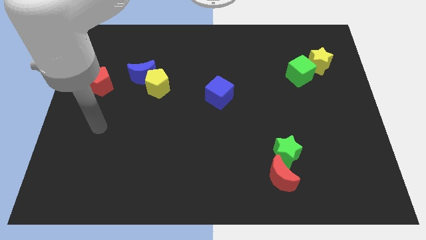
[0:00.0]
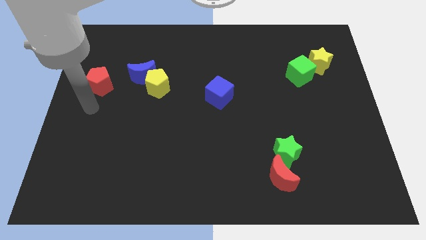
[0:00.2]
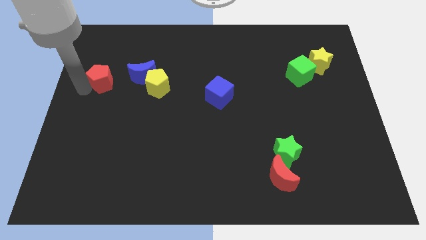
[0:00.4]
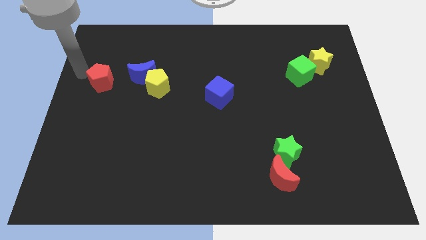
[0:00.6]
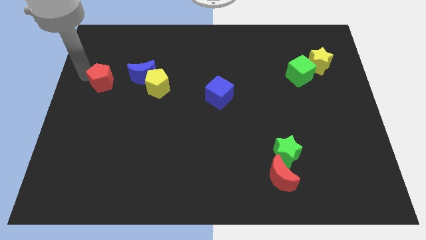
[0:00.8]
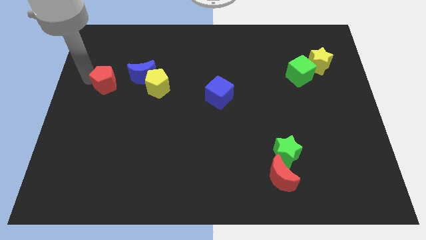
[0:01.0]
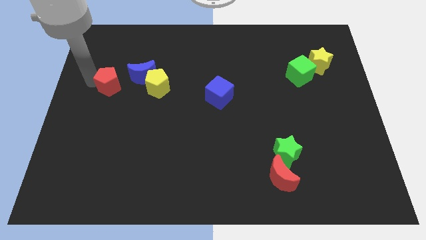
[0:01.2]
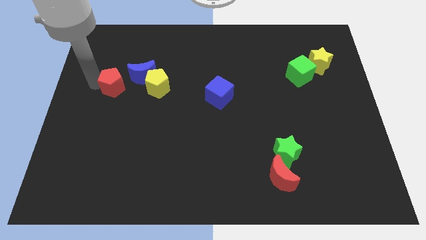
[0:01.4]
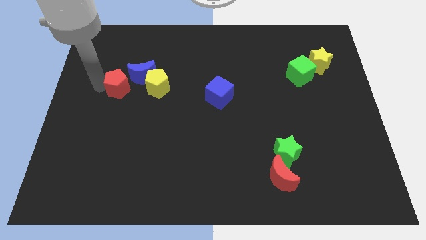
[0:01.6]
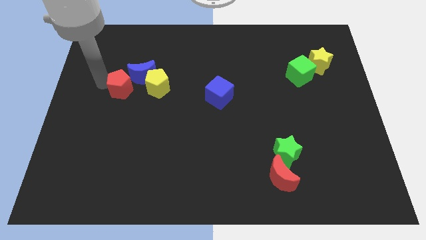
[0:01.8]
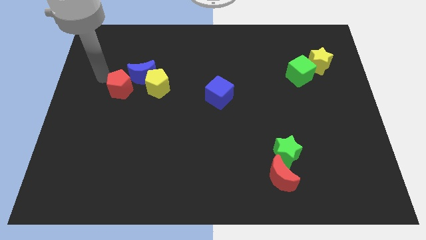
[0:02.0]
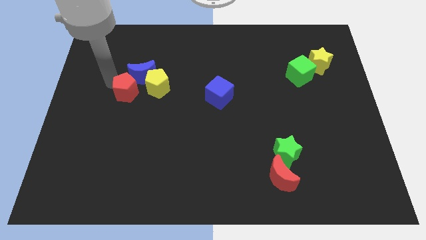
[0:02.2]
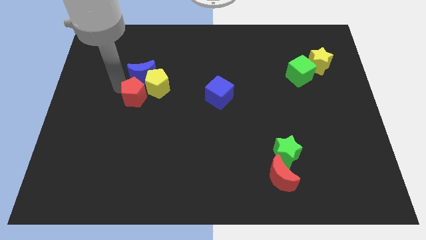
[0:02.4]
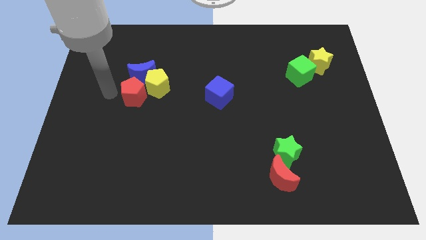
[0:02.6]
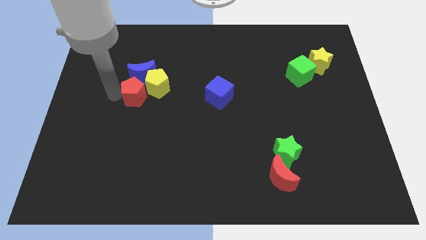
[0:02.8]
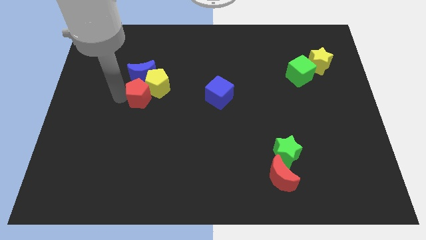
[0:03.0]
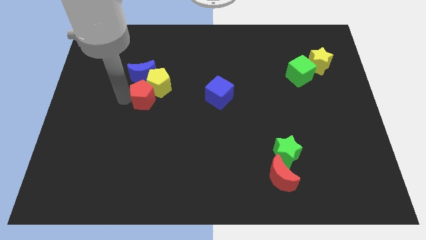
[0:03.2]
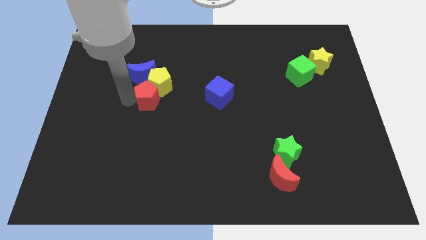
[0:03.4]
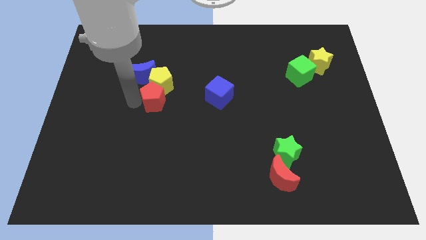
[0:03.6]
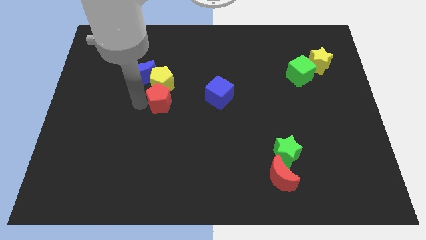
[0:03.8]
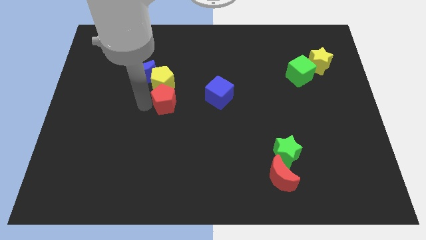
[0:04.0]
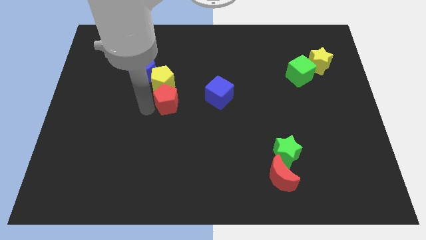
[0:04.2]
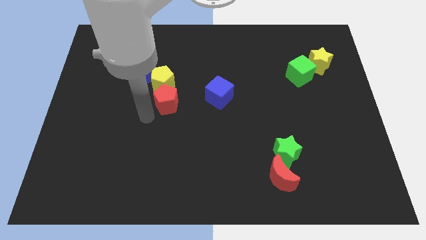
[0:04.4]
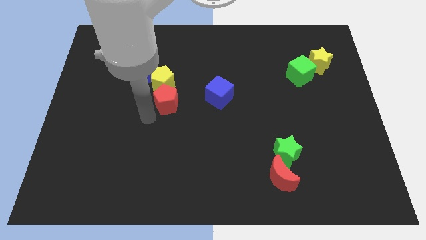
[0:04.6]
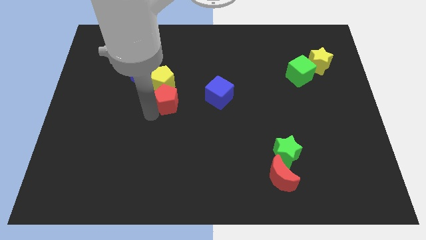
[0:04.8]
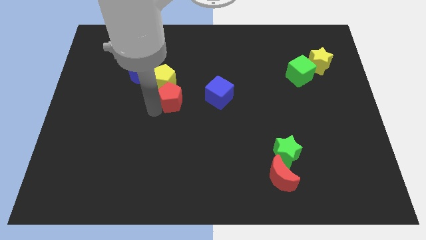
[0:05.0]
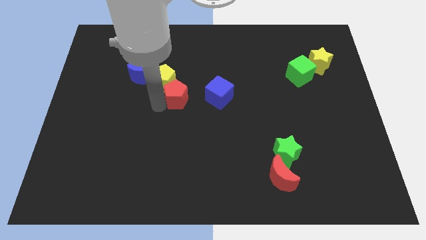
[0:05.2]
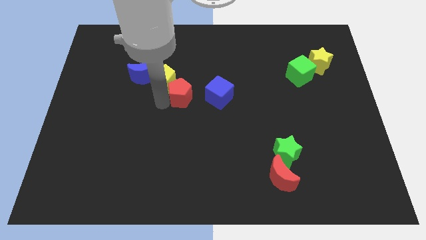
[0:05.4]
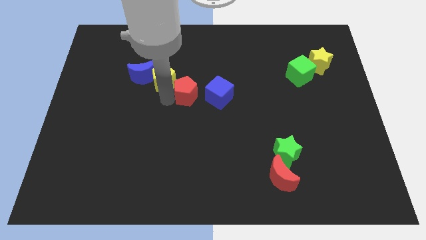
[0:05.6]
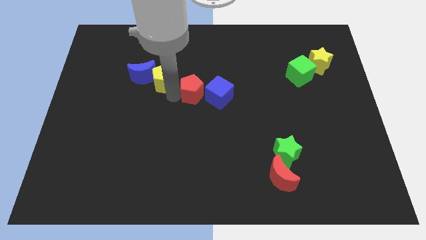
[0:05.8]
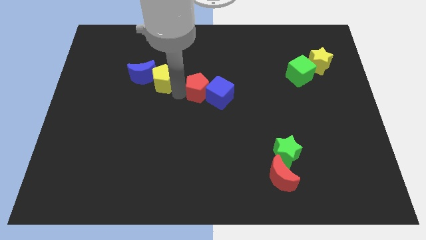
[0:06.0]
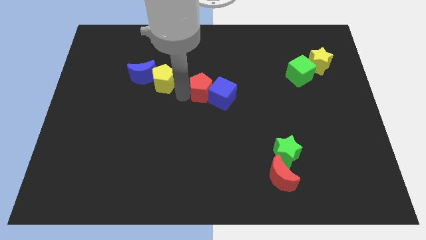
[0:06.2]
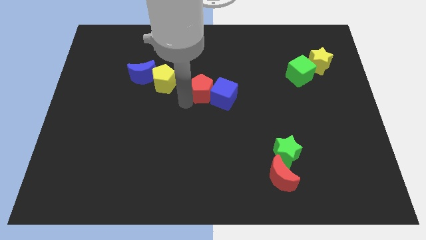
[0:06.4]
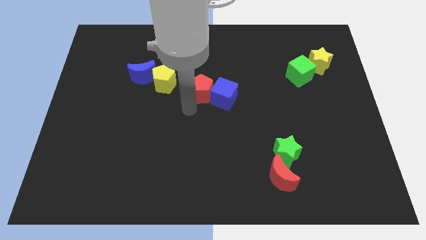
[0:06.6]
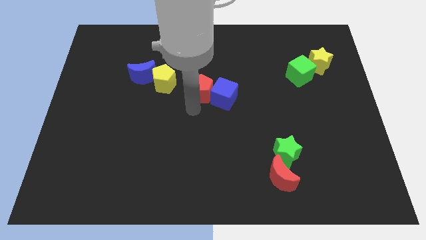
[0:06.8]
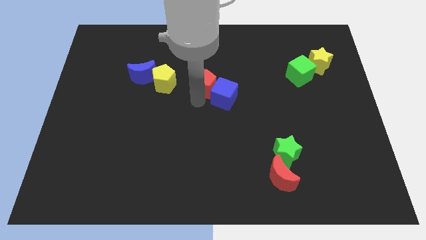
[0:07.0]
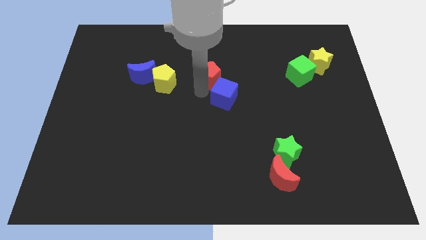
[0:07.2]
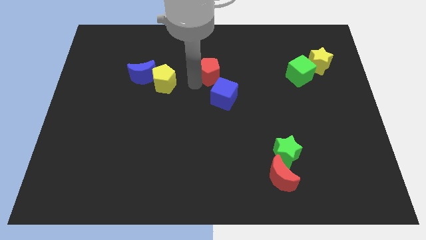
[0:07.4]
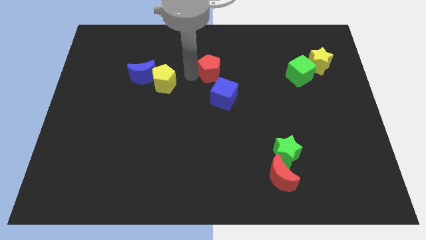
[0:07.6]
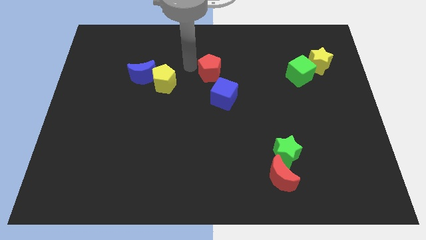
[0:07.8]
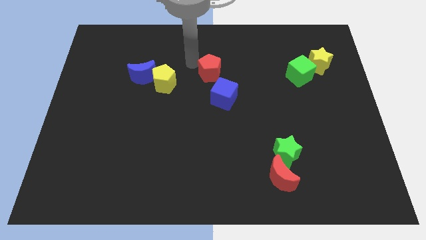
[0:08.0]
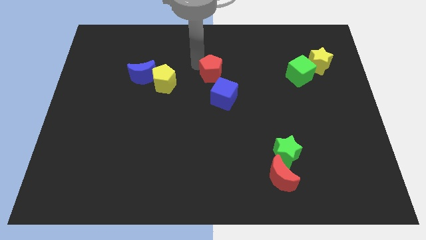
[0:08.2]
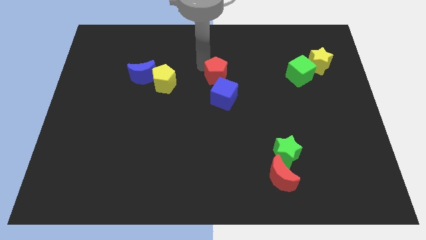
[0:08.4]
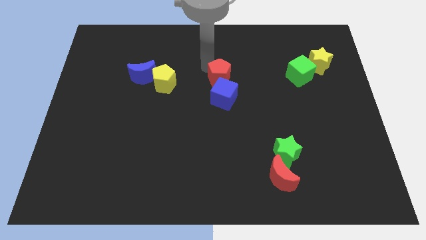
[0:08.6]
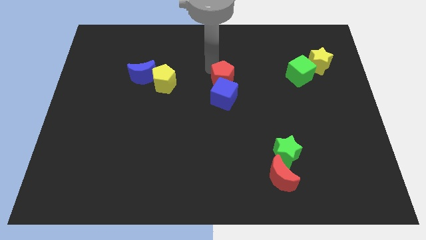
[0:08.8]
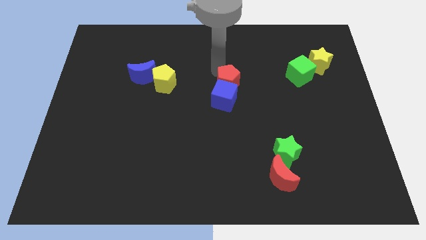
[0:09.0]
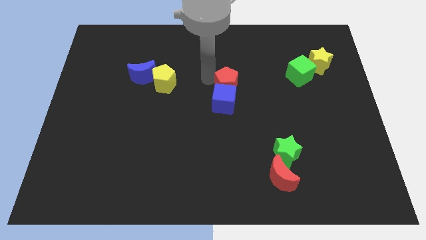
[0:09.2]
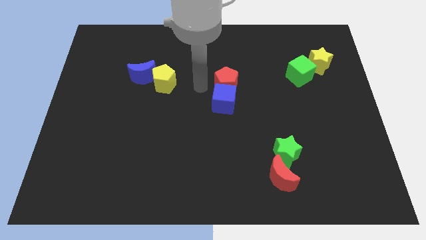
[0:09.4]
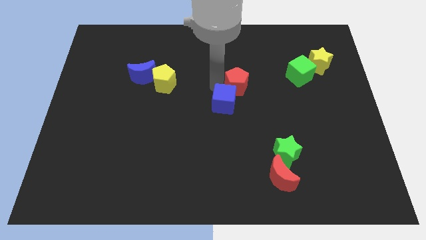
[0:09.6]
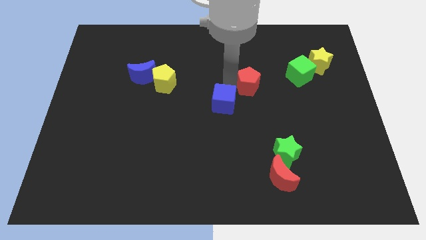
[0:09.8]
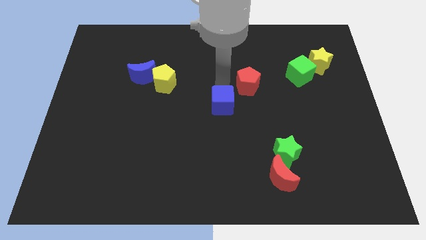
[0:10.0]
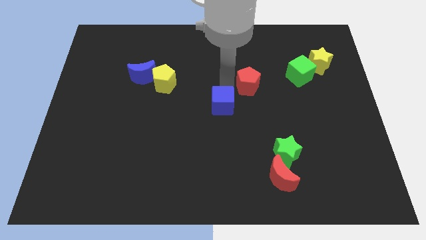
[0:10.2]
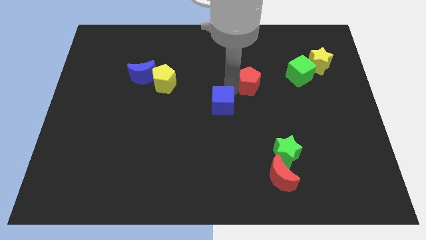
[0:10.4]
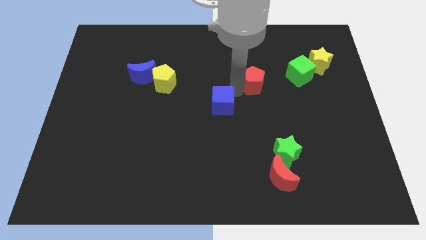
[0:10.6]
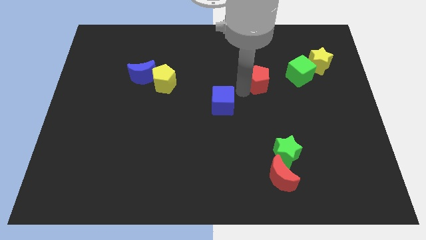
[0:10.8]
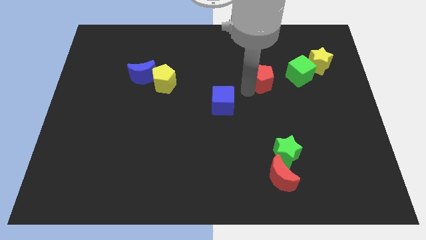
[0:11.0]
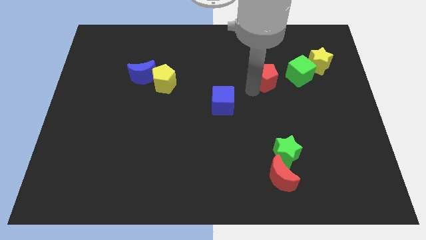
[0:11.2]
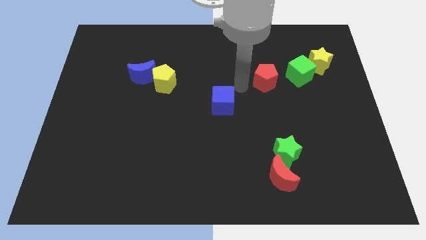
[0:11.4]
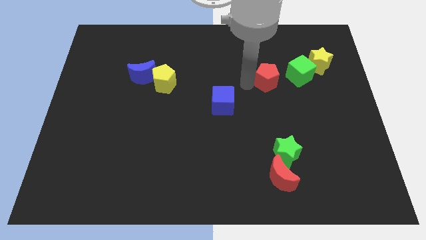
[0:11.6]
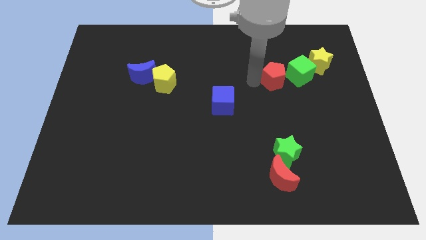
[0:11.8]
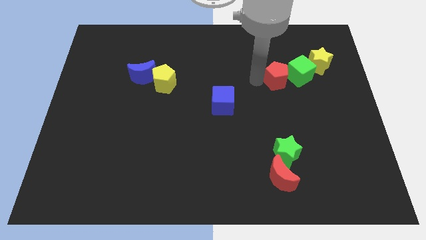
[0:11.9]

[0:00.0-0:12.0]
move the red pentagon towards the green cube

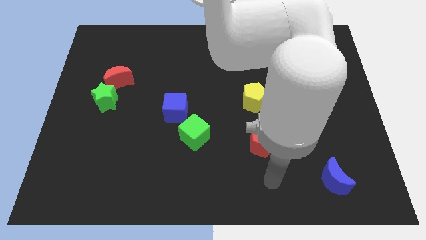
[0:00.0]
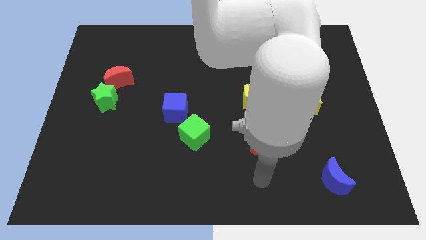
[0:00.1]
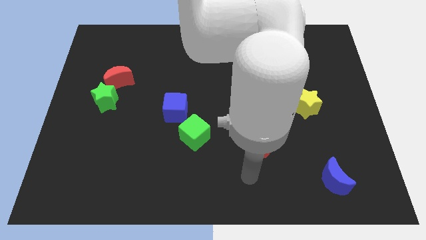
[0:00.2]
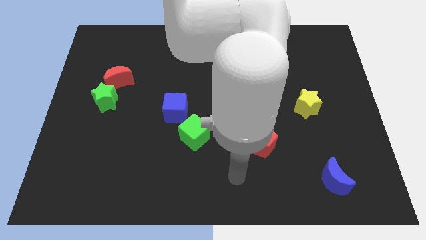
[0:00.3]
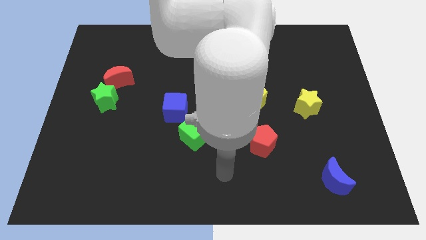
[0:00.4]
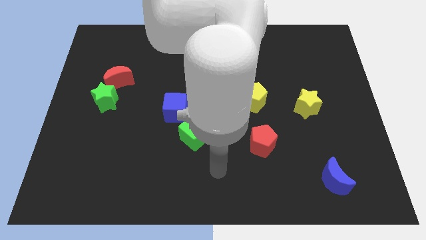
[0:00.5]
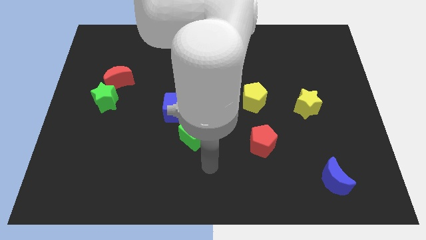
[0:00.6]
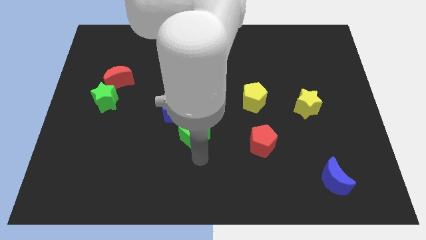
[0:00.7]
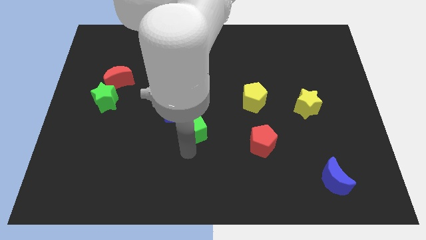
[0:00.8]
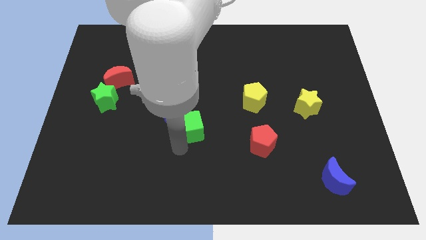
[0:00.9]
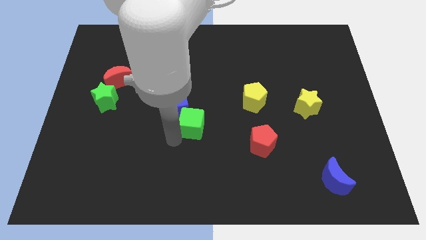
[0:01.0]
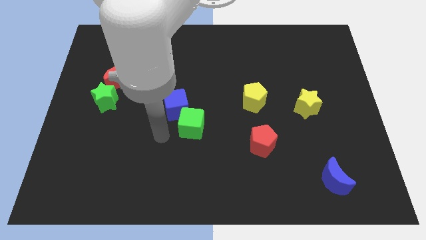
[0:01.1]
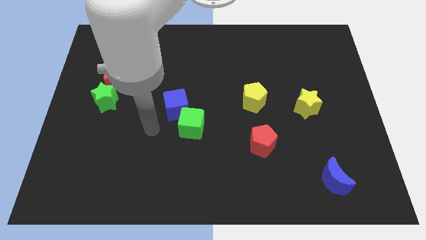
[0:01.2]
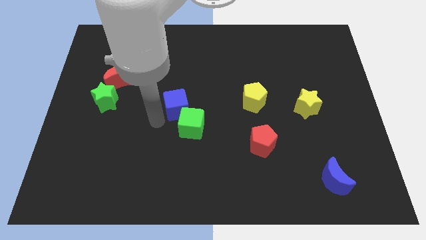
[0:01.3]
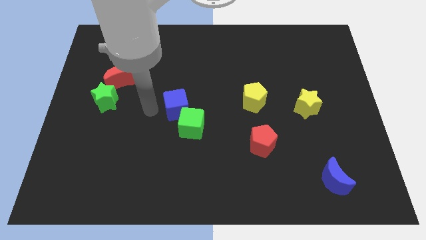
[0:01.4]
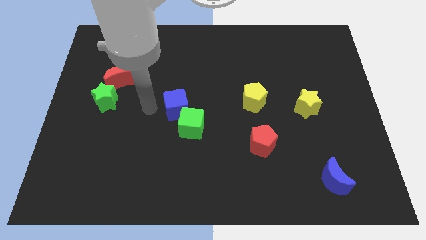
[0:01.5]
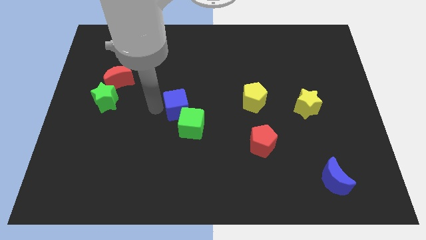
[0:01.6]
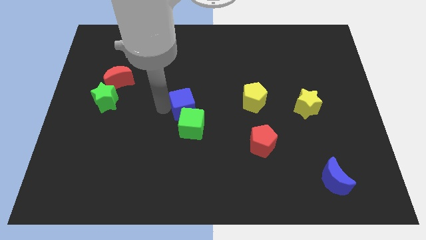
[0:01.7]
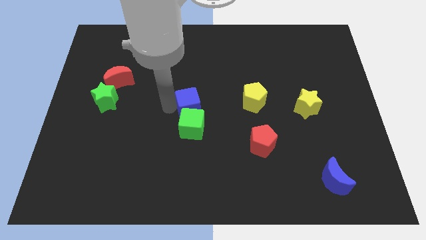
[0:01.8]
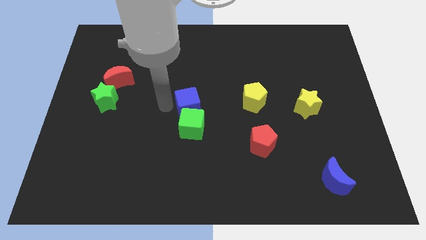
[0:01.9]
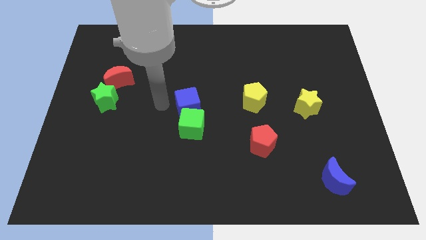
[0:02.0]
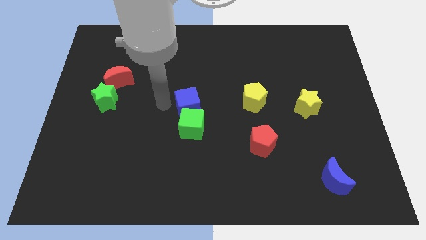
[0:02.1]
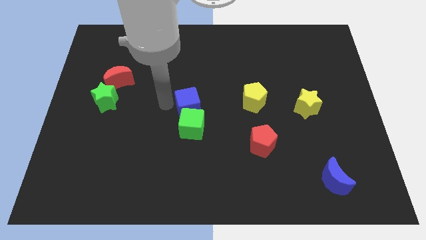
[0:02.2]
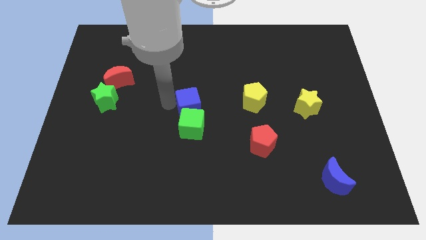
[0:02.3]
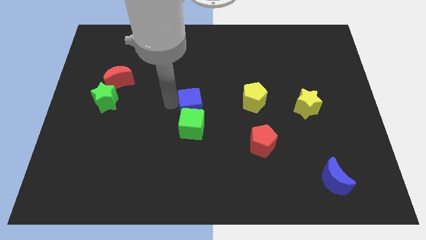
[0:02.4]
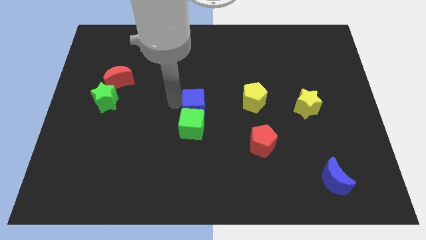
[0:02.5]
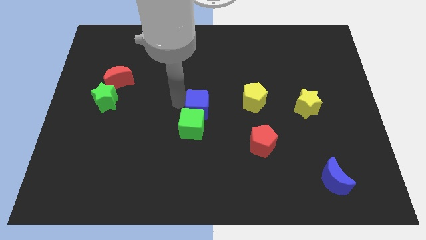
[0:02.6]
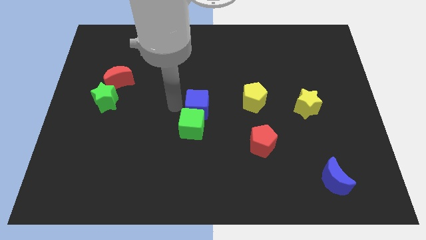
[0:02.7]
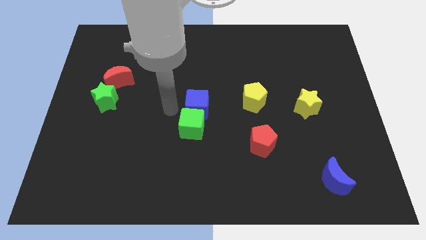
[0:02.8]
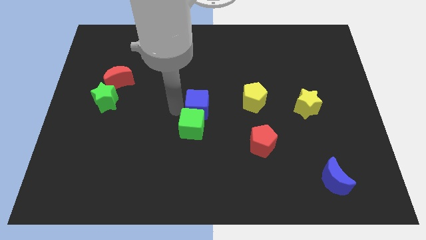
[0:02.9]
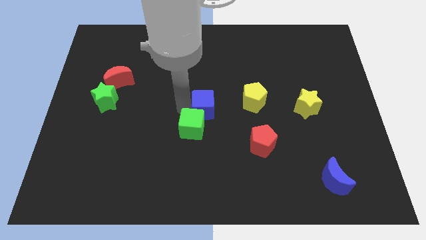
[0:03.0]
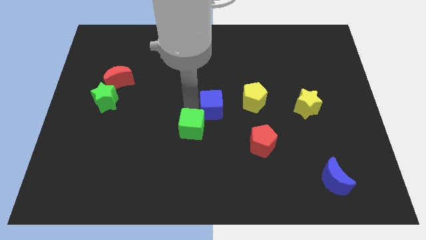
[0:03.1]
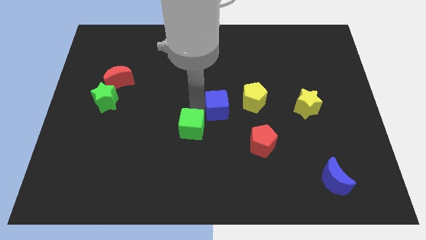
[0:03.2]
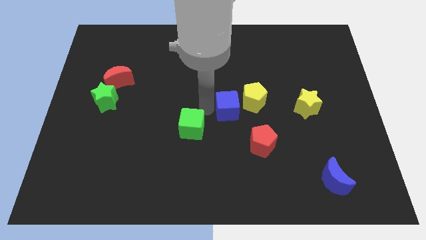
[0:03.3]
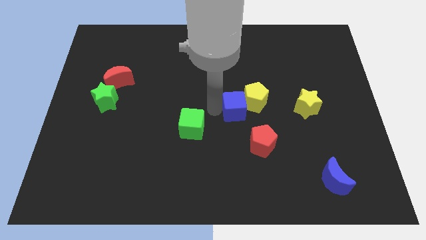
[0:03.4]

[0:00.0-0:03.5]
put the blue cube next to the yellow pentagon
